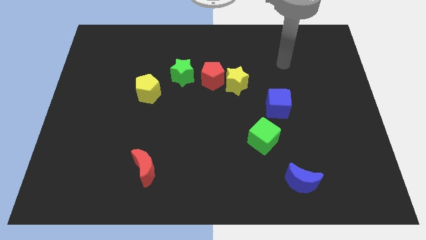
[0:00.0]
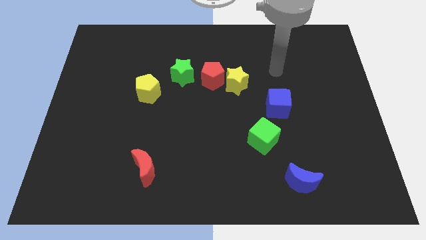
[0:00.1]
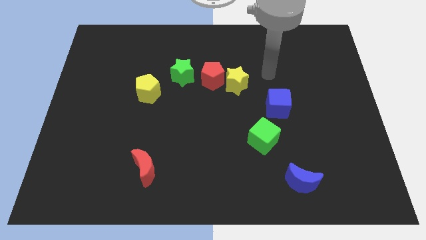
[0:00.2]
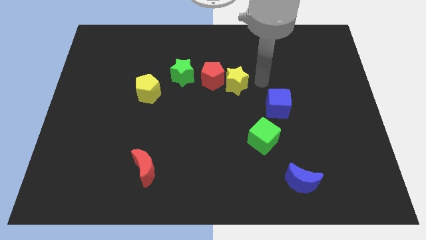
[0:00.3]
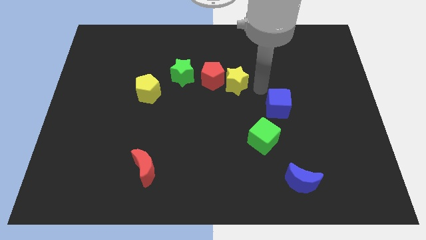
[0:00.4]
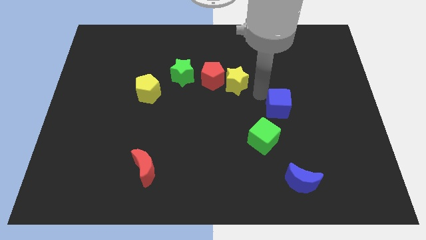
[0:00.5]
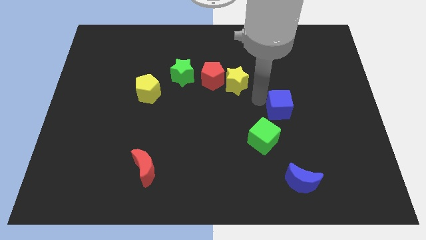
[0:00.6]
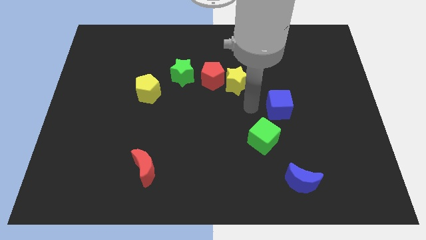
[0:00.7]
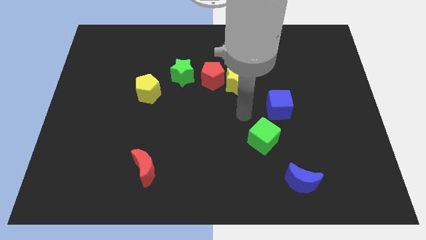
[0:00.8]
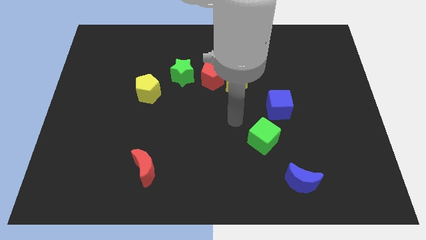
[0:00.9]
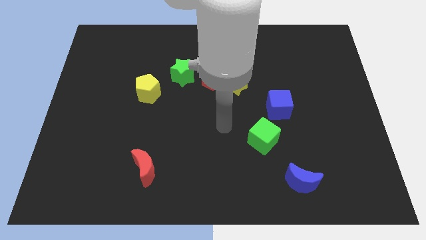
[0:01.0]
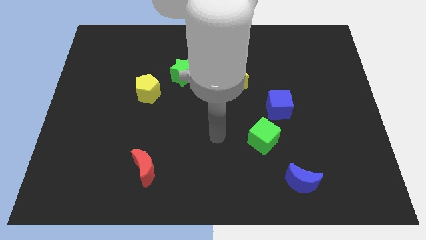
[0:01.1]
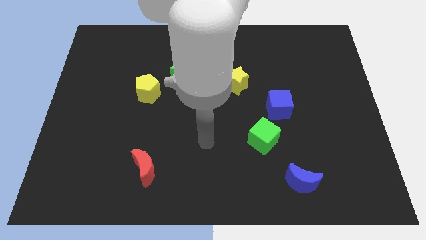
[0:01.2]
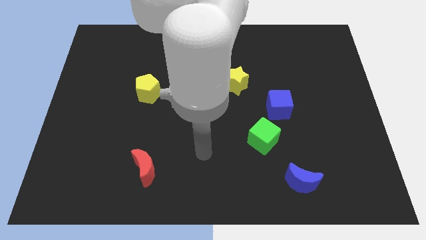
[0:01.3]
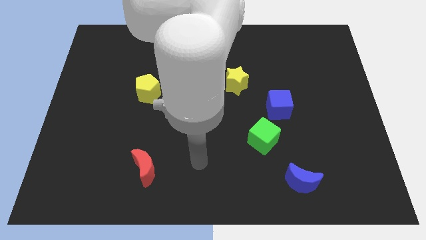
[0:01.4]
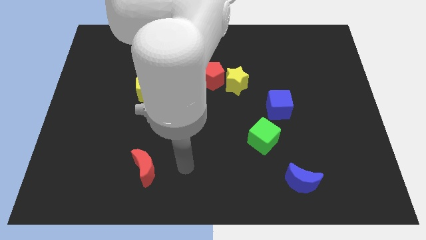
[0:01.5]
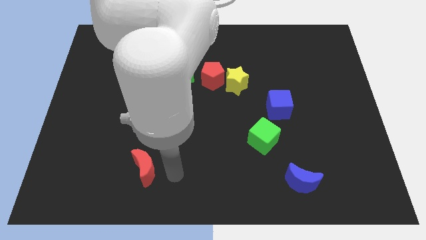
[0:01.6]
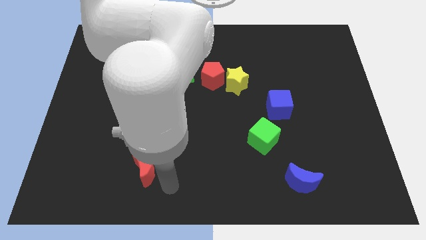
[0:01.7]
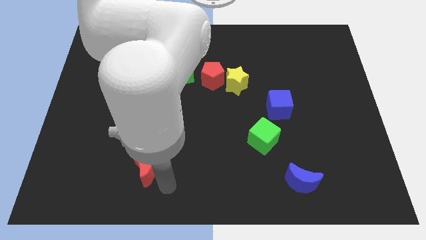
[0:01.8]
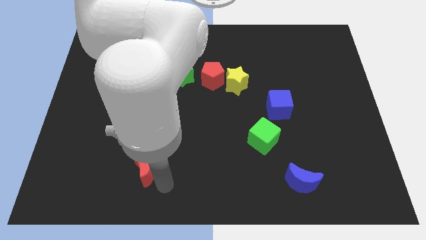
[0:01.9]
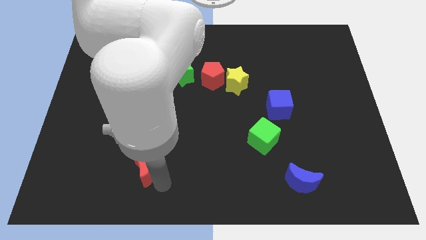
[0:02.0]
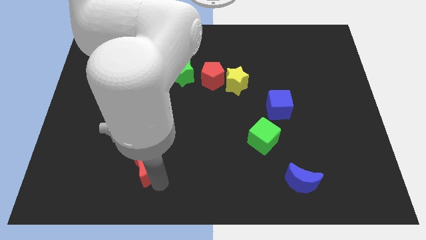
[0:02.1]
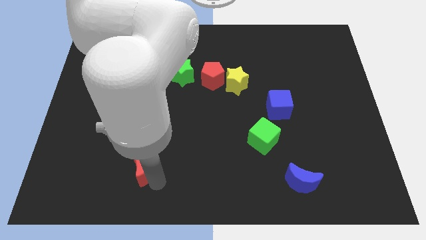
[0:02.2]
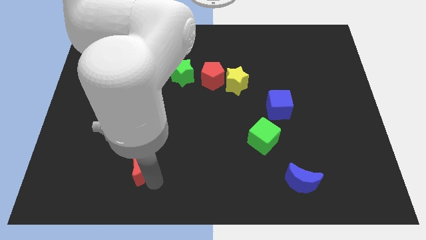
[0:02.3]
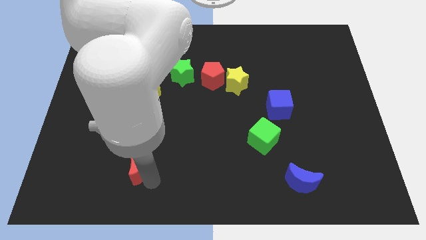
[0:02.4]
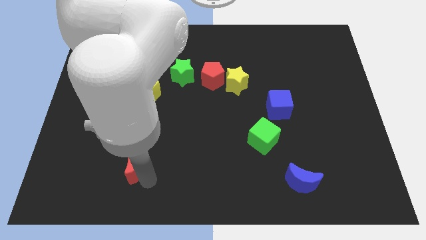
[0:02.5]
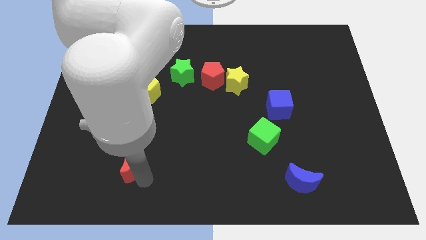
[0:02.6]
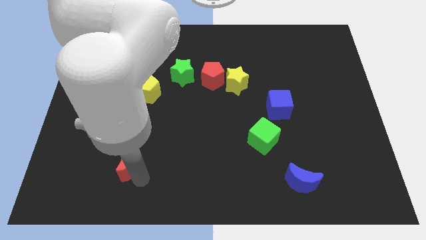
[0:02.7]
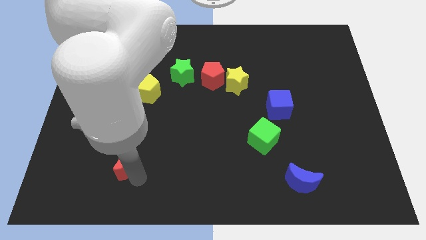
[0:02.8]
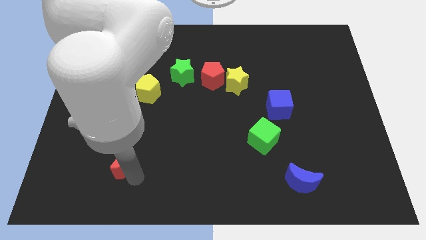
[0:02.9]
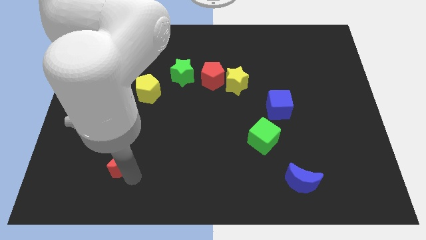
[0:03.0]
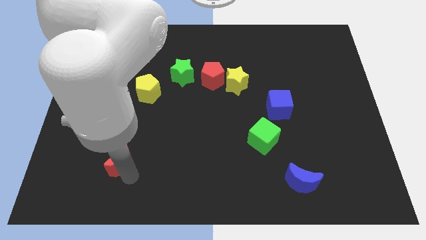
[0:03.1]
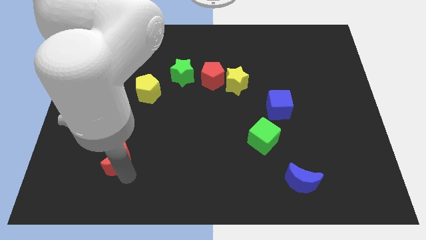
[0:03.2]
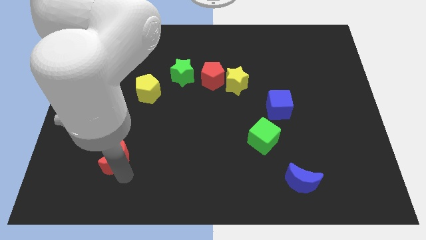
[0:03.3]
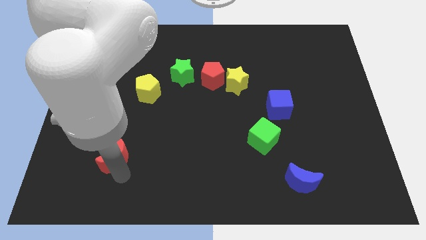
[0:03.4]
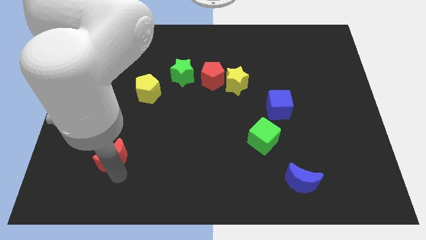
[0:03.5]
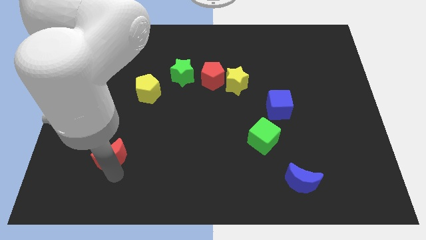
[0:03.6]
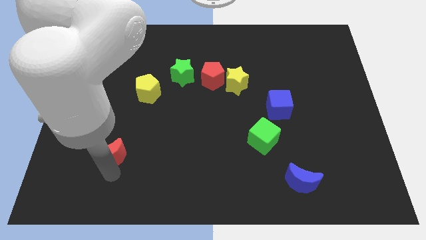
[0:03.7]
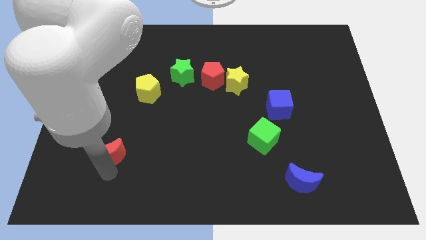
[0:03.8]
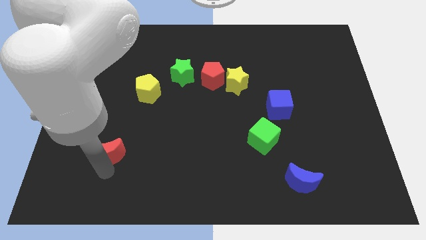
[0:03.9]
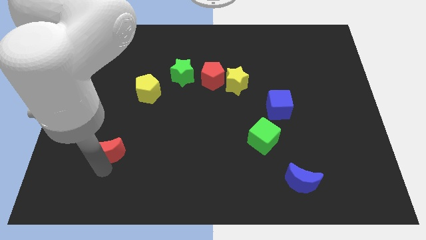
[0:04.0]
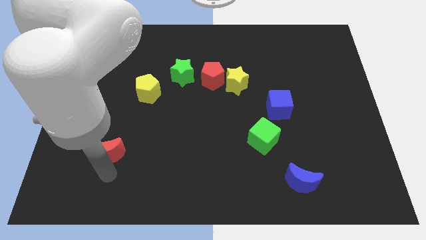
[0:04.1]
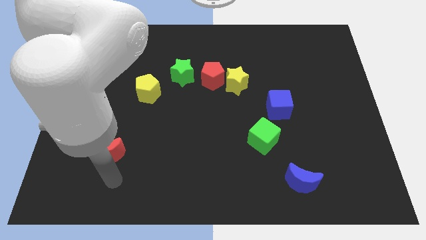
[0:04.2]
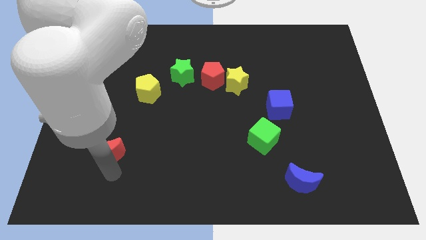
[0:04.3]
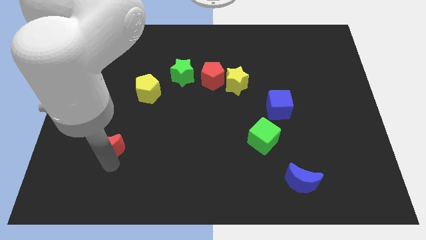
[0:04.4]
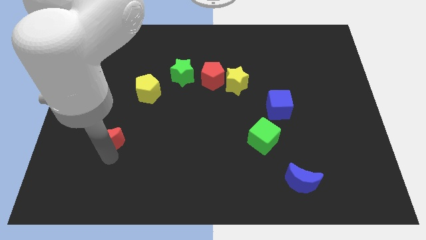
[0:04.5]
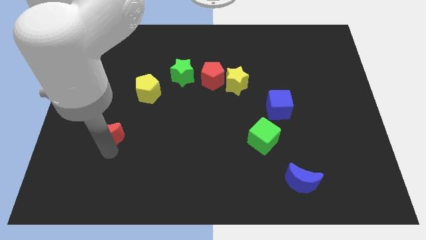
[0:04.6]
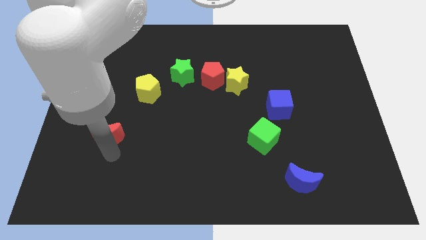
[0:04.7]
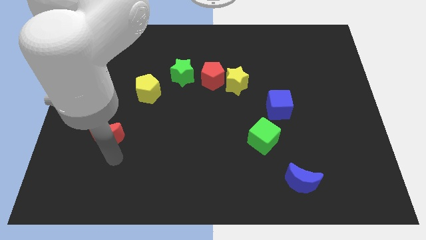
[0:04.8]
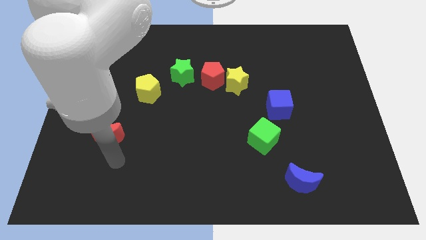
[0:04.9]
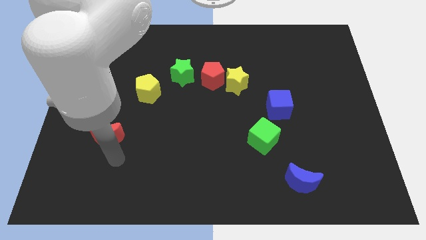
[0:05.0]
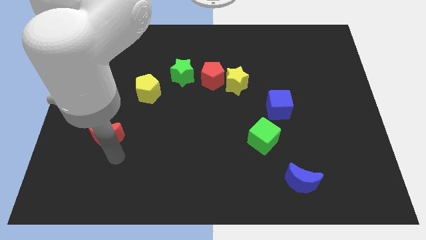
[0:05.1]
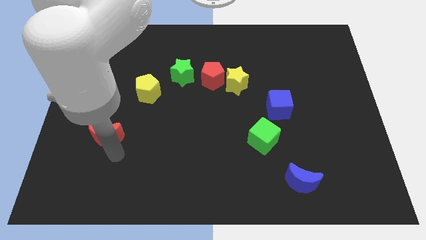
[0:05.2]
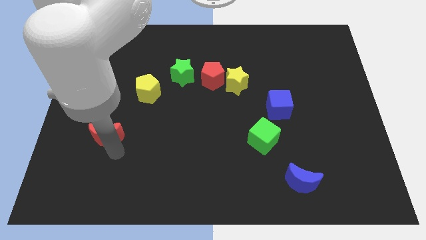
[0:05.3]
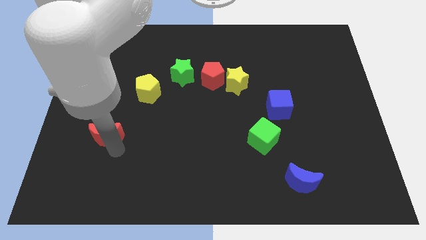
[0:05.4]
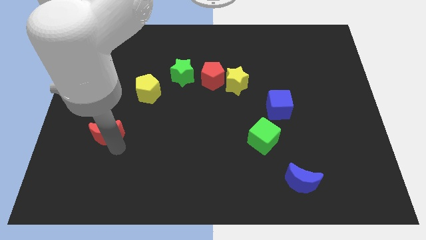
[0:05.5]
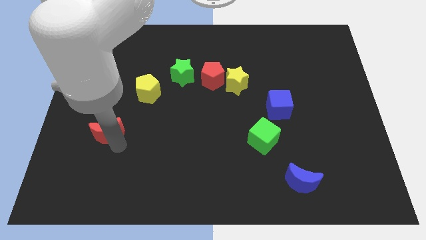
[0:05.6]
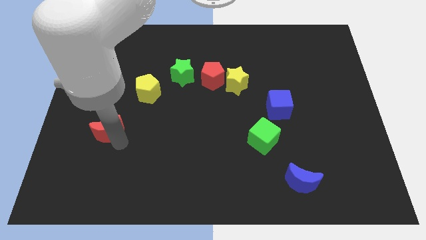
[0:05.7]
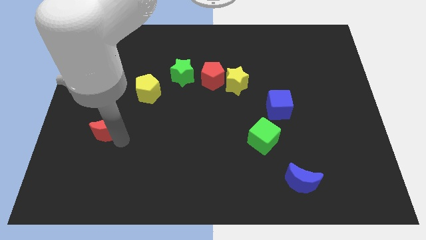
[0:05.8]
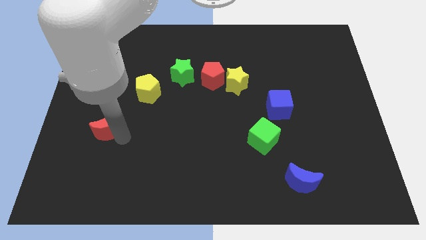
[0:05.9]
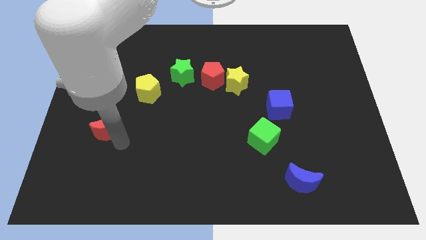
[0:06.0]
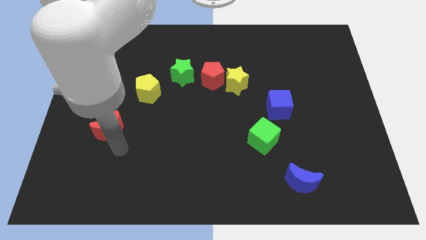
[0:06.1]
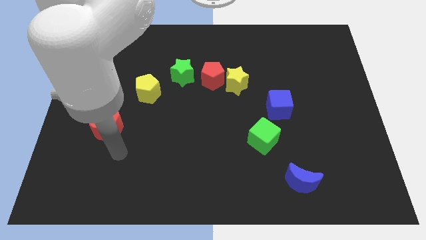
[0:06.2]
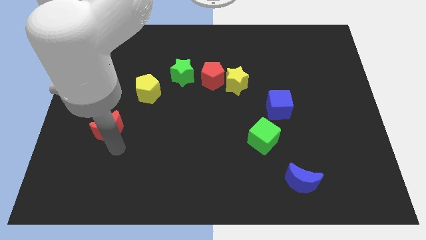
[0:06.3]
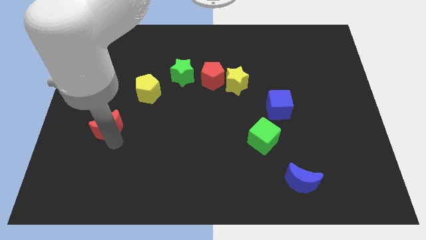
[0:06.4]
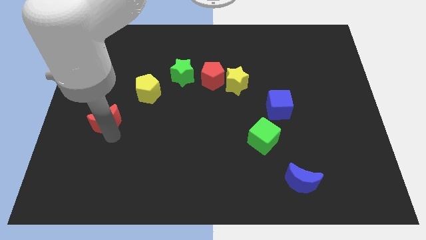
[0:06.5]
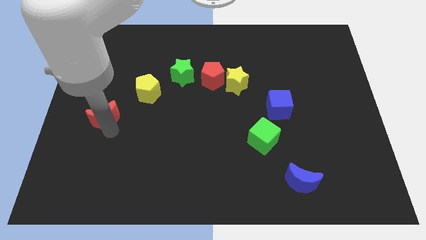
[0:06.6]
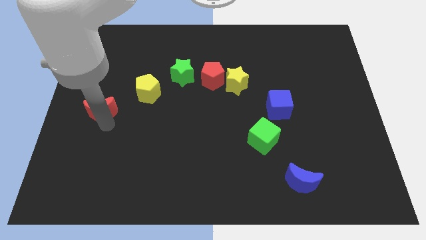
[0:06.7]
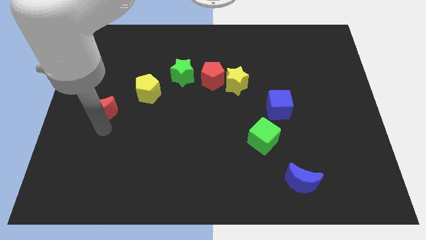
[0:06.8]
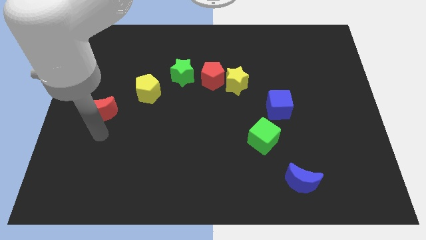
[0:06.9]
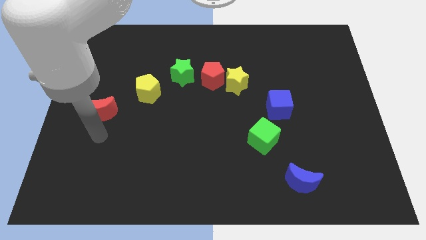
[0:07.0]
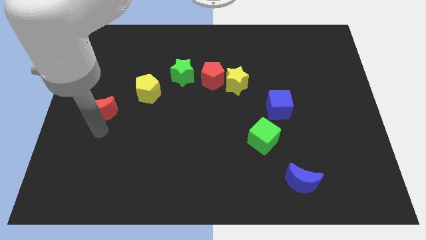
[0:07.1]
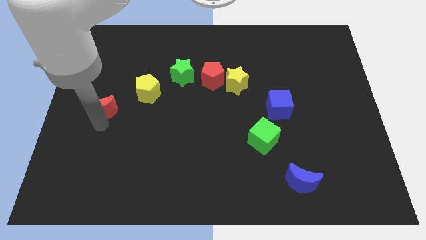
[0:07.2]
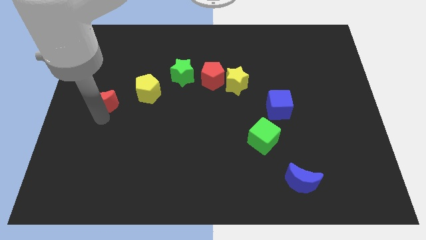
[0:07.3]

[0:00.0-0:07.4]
put the red moon just left of the yellow pentagon

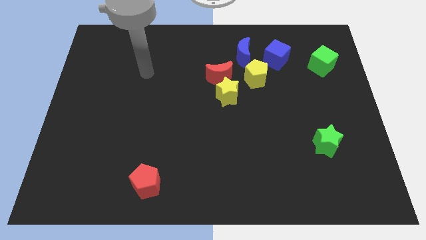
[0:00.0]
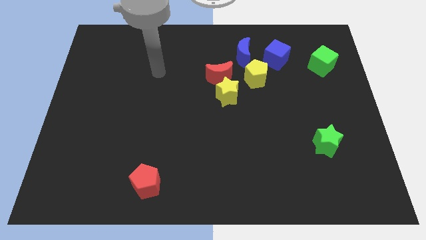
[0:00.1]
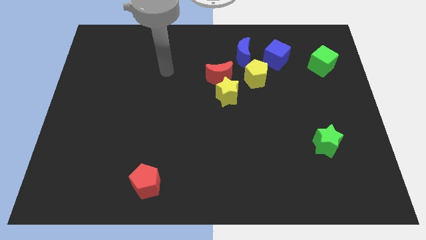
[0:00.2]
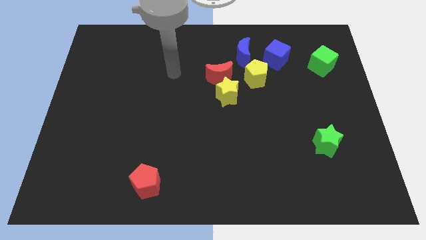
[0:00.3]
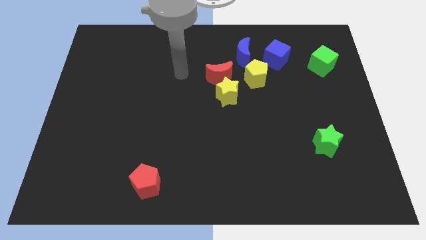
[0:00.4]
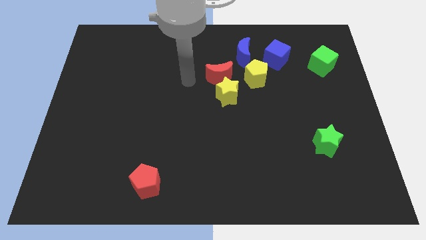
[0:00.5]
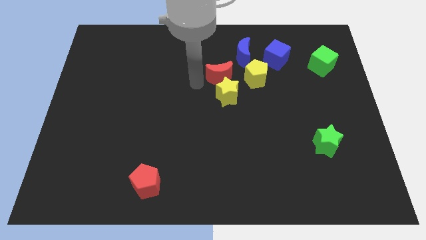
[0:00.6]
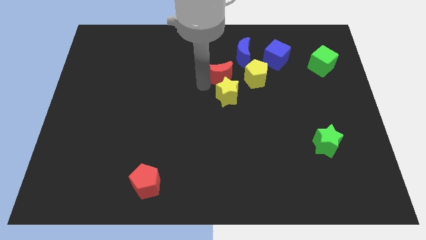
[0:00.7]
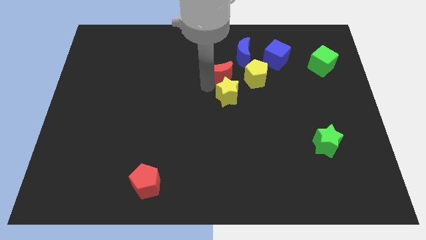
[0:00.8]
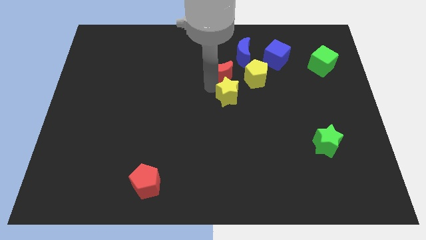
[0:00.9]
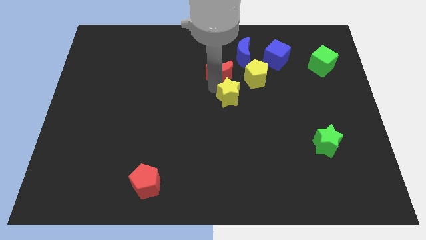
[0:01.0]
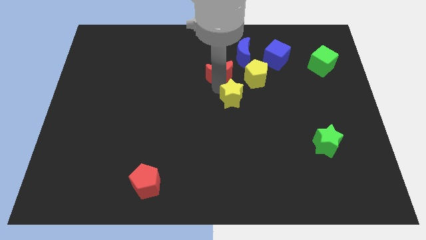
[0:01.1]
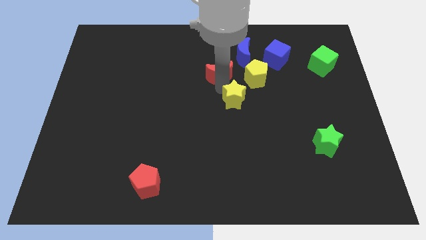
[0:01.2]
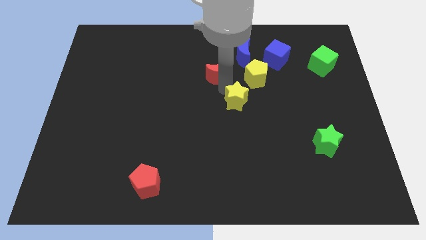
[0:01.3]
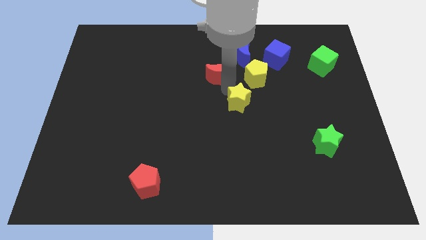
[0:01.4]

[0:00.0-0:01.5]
put the yellow star below the yellow pentagon
